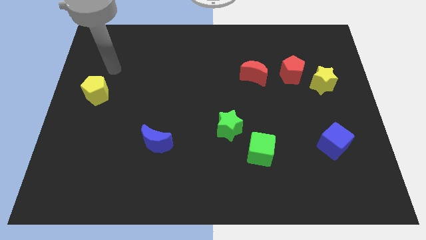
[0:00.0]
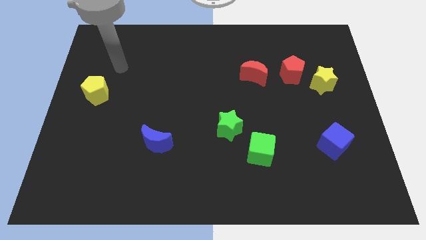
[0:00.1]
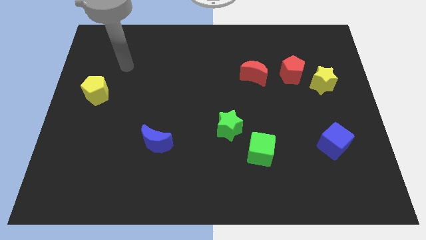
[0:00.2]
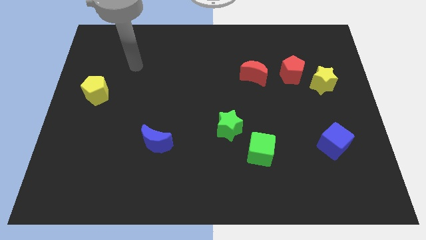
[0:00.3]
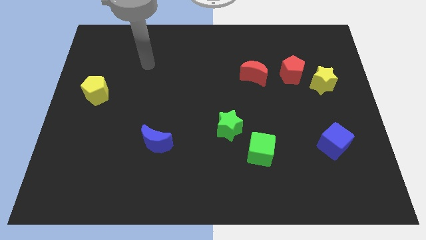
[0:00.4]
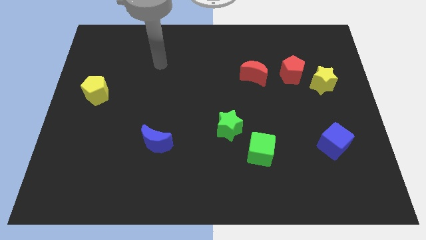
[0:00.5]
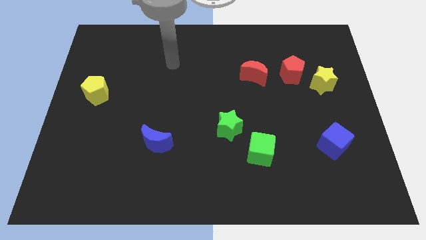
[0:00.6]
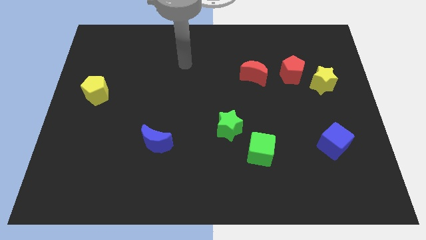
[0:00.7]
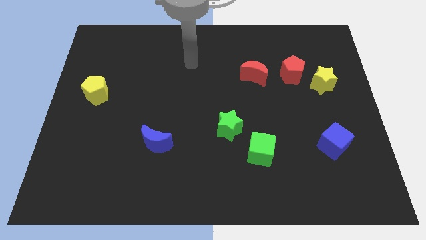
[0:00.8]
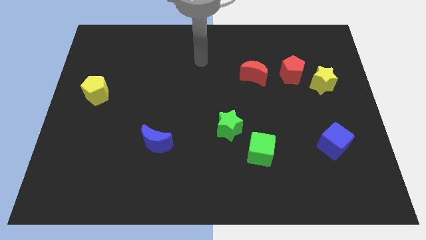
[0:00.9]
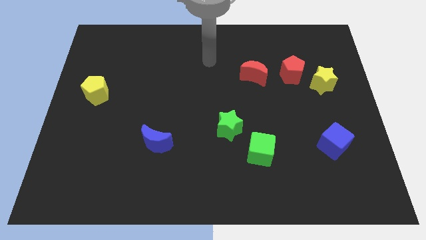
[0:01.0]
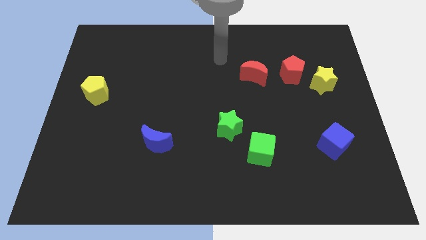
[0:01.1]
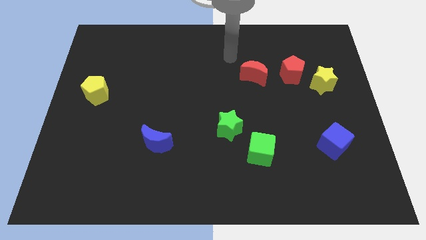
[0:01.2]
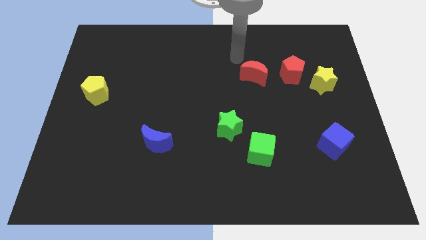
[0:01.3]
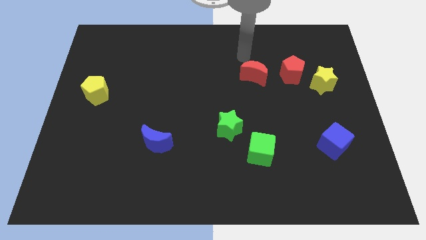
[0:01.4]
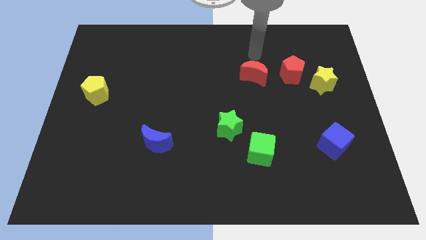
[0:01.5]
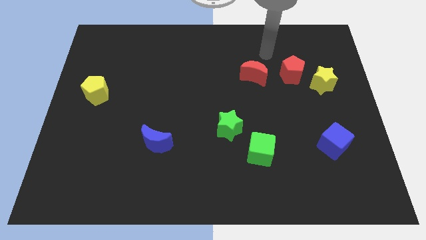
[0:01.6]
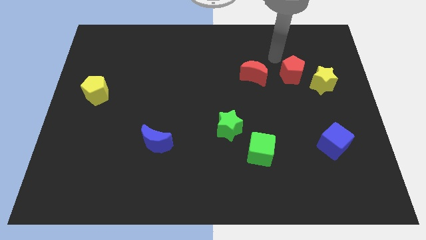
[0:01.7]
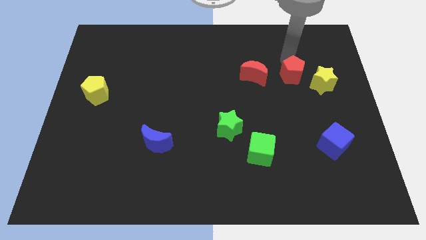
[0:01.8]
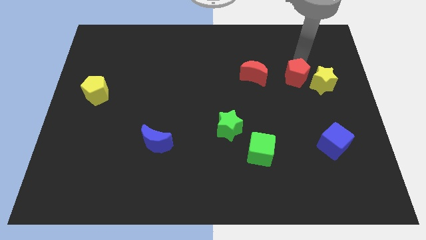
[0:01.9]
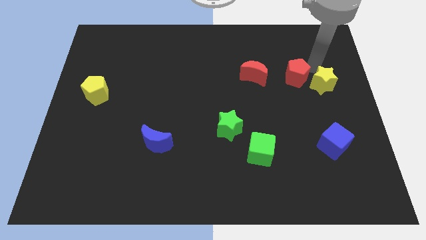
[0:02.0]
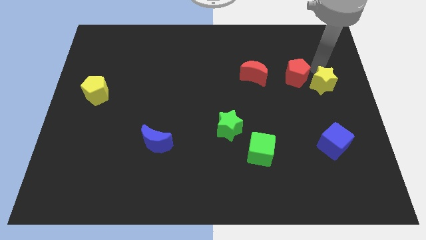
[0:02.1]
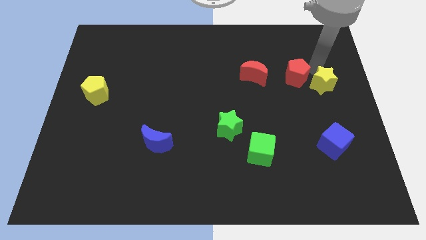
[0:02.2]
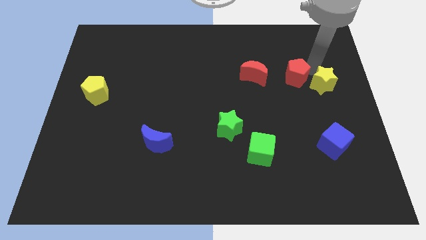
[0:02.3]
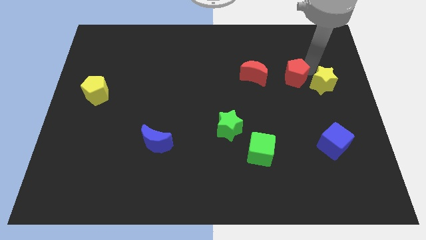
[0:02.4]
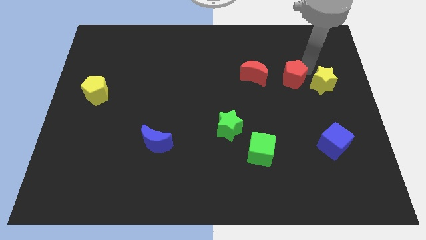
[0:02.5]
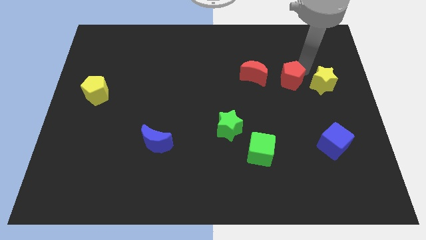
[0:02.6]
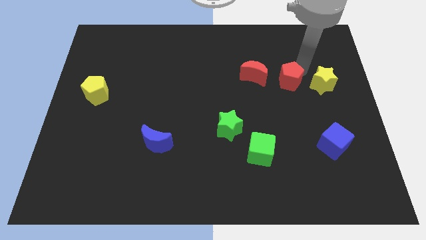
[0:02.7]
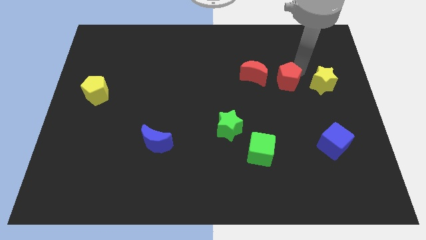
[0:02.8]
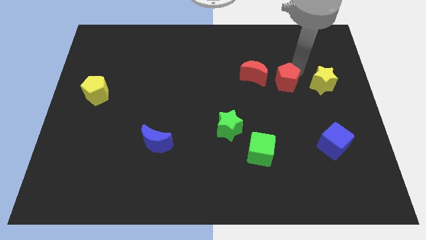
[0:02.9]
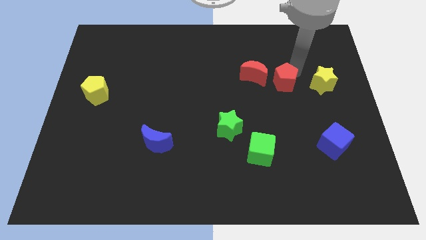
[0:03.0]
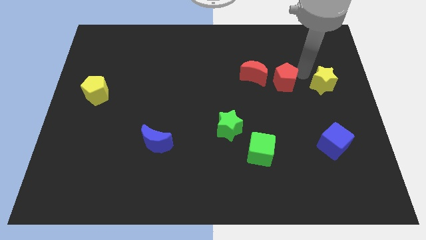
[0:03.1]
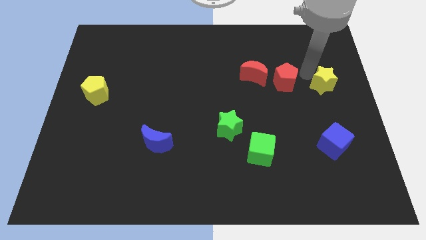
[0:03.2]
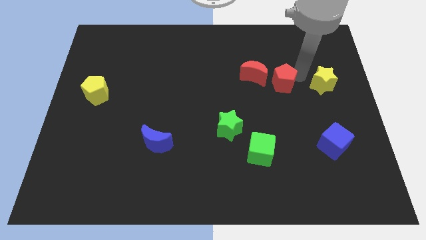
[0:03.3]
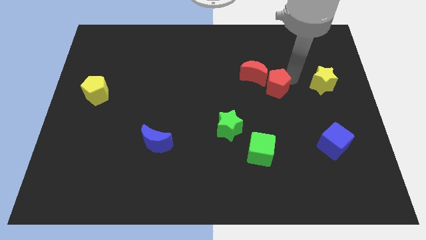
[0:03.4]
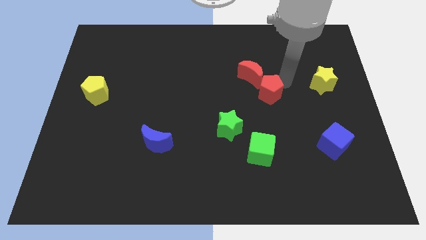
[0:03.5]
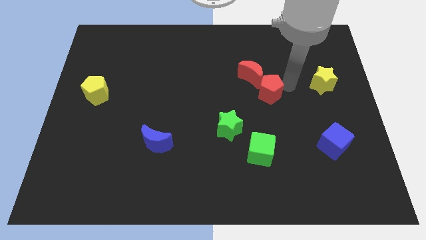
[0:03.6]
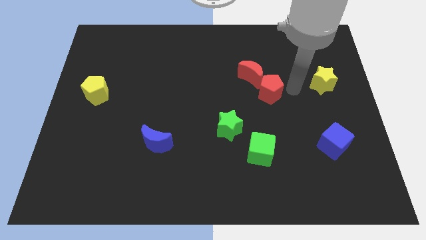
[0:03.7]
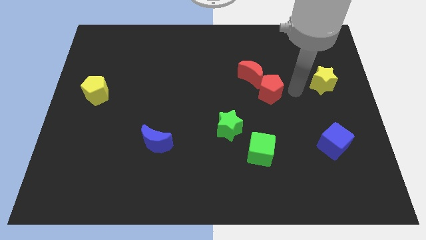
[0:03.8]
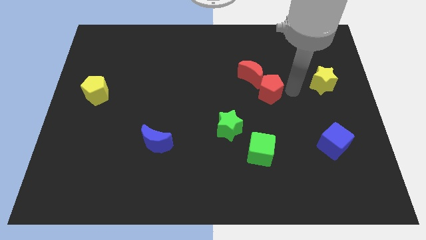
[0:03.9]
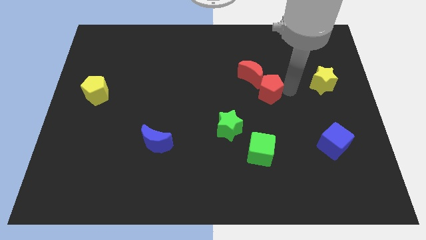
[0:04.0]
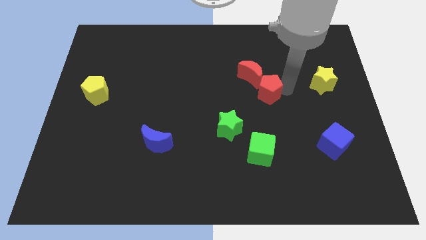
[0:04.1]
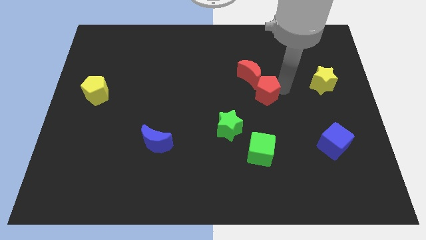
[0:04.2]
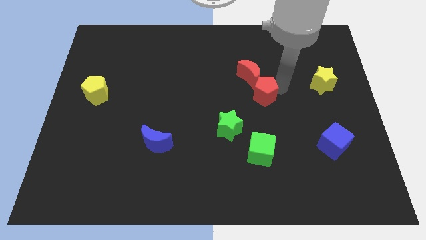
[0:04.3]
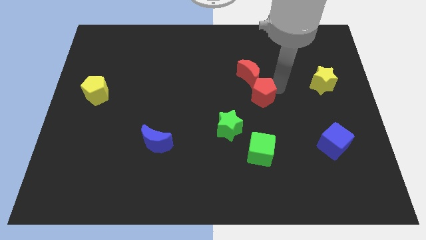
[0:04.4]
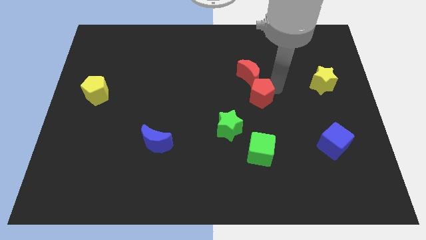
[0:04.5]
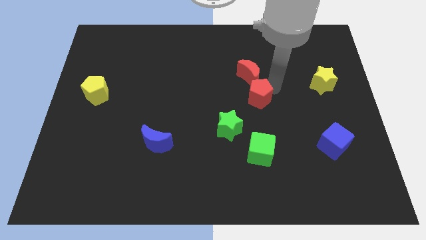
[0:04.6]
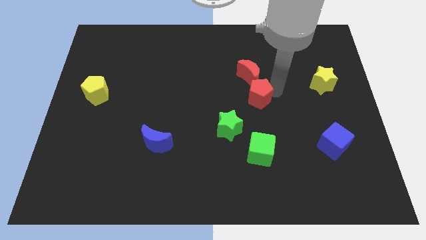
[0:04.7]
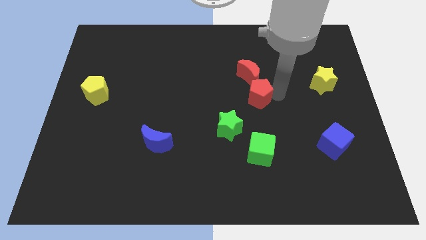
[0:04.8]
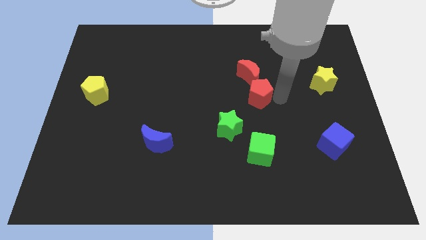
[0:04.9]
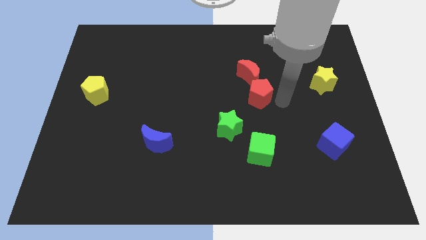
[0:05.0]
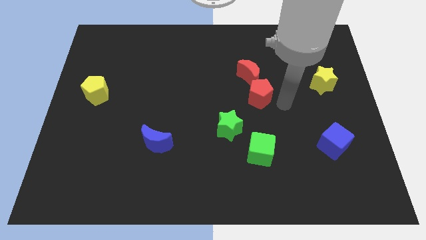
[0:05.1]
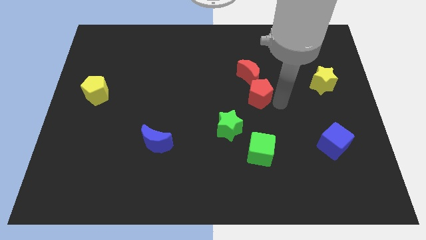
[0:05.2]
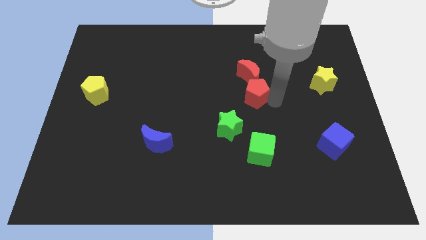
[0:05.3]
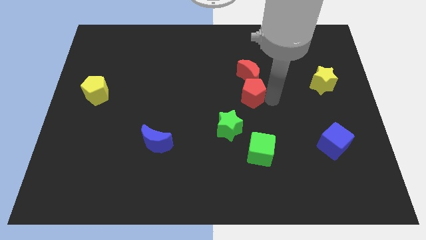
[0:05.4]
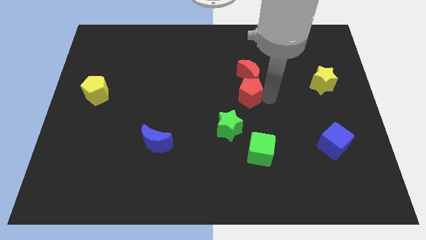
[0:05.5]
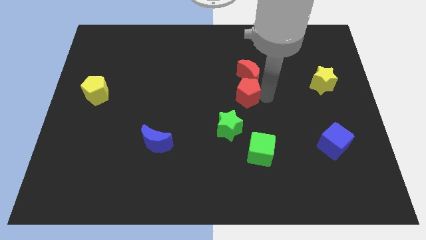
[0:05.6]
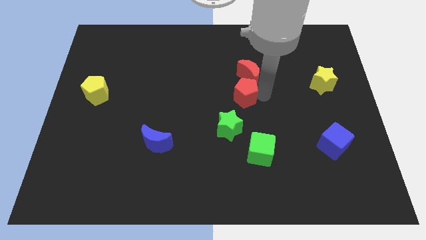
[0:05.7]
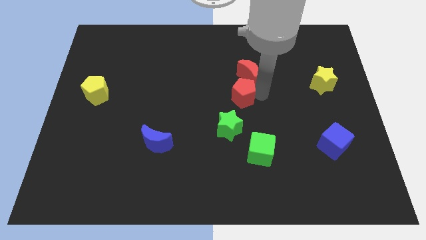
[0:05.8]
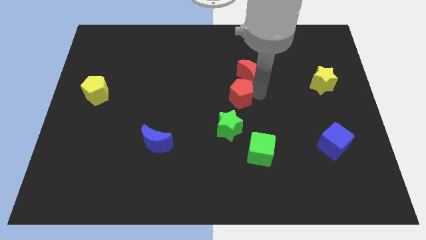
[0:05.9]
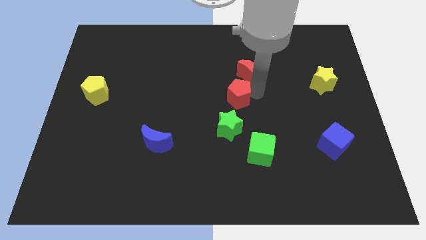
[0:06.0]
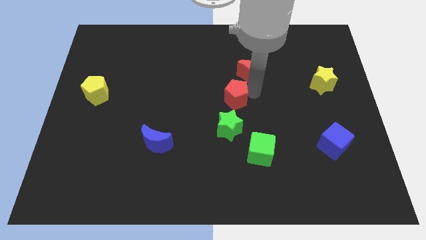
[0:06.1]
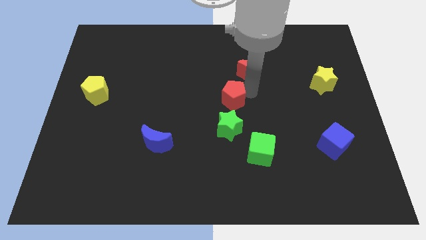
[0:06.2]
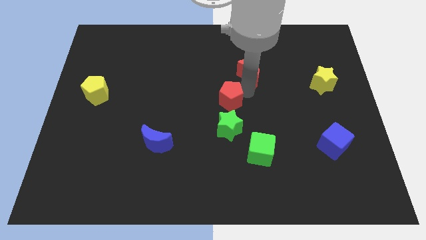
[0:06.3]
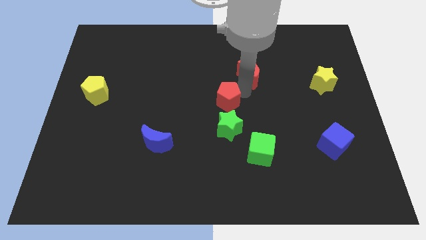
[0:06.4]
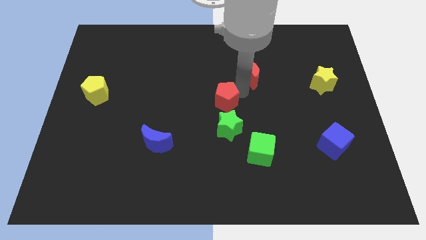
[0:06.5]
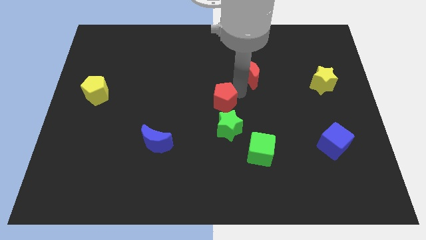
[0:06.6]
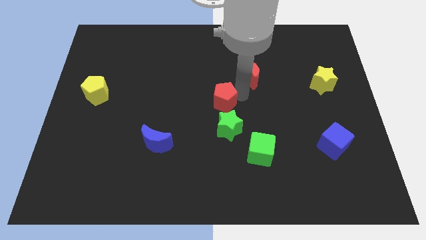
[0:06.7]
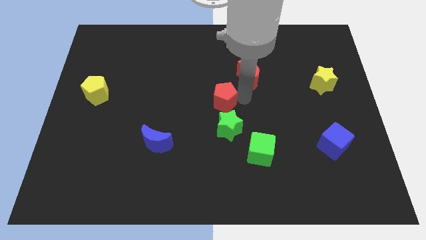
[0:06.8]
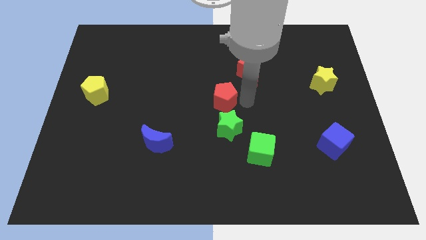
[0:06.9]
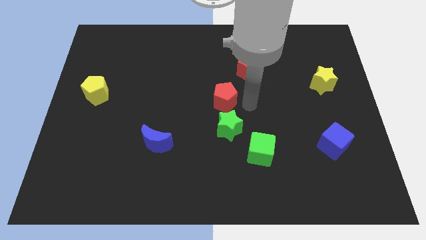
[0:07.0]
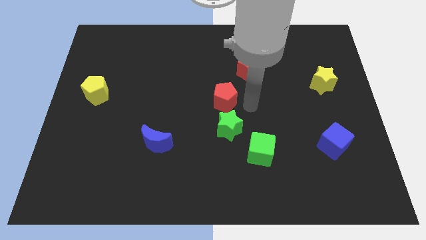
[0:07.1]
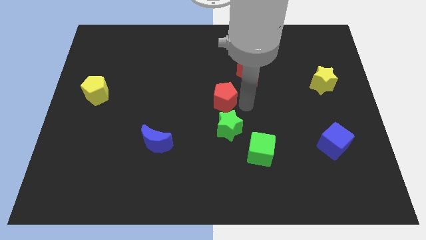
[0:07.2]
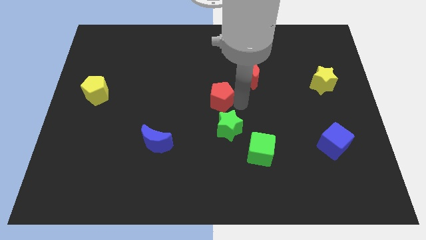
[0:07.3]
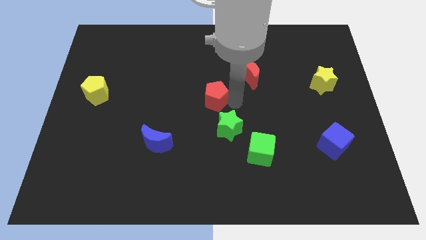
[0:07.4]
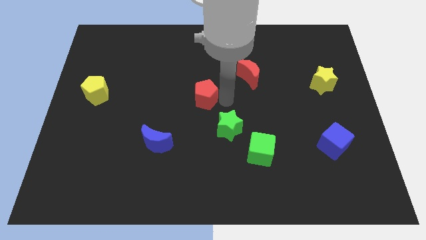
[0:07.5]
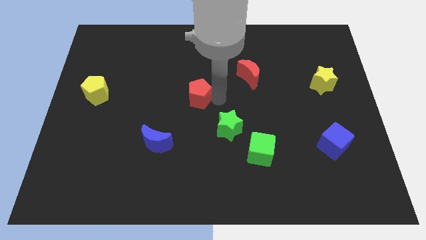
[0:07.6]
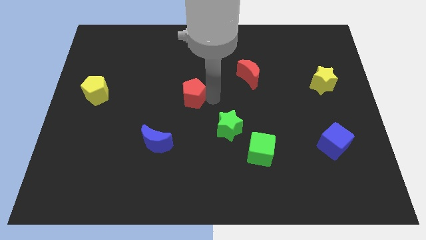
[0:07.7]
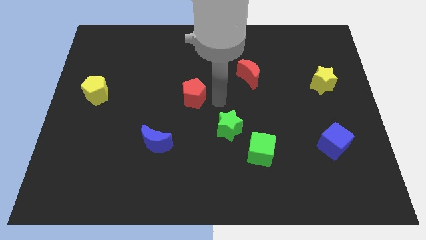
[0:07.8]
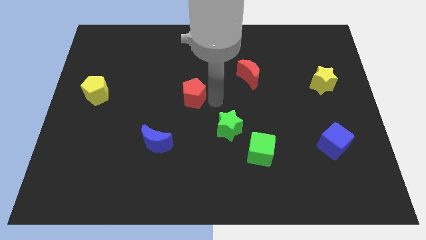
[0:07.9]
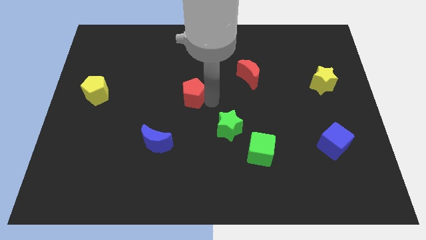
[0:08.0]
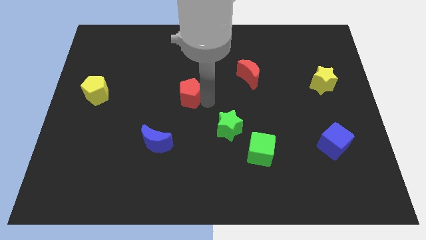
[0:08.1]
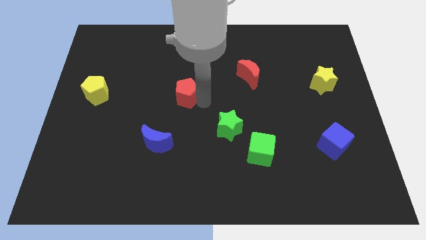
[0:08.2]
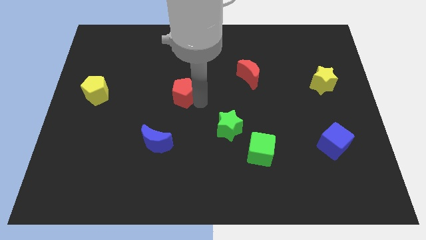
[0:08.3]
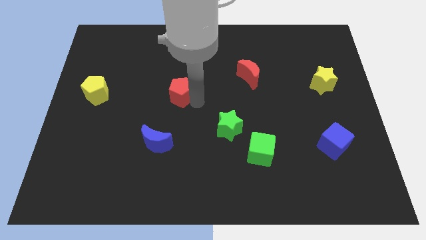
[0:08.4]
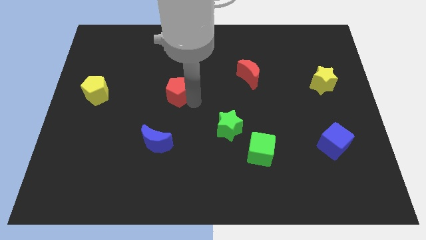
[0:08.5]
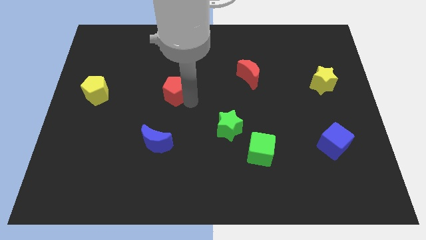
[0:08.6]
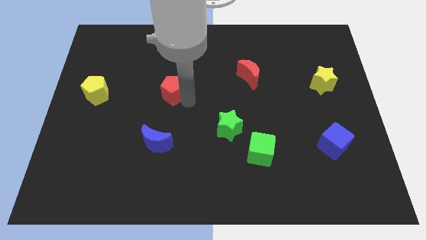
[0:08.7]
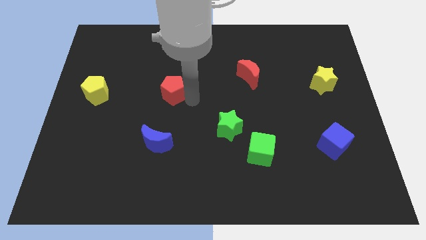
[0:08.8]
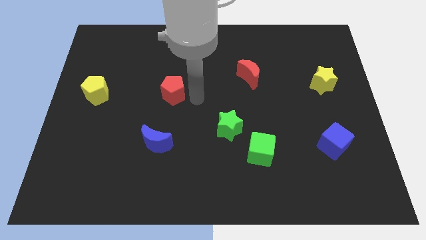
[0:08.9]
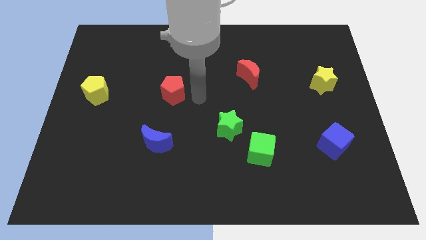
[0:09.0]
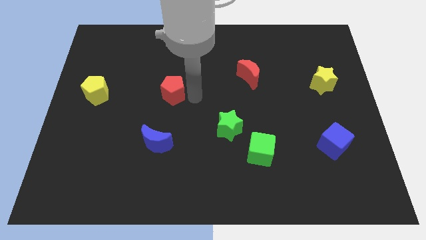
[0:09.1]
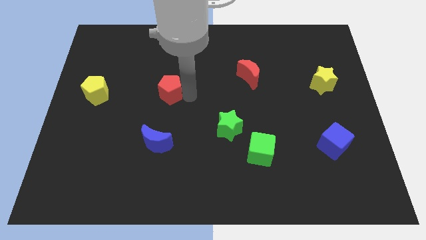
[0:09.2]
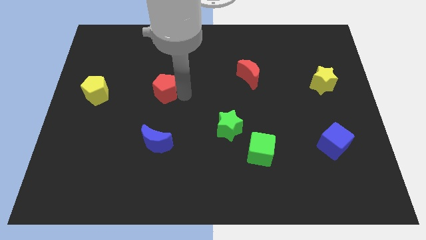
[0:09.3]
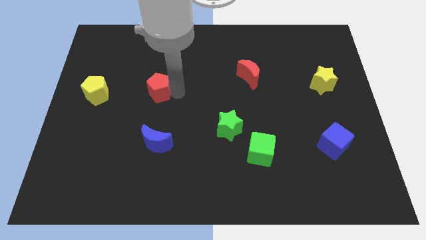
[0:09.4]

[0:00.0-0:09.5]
slide the red pentagon just right of the yellow pentagon
